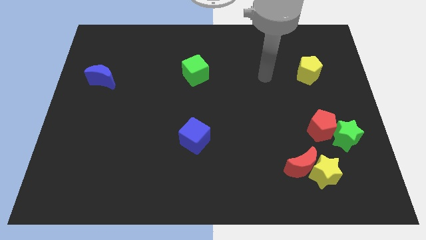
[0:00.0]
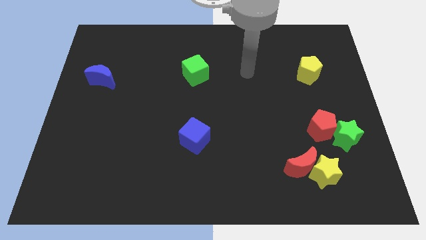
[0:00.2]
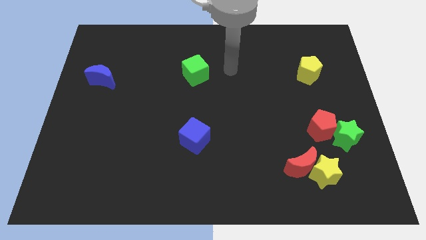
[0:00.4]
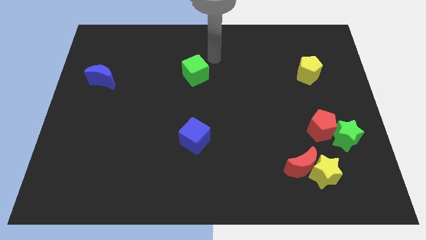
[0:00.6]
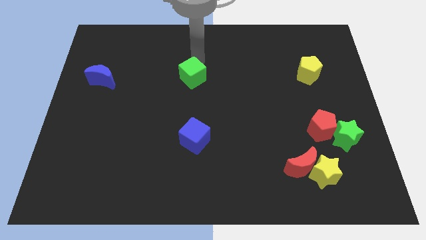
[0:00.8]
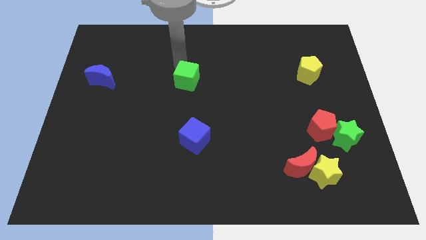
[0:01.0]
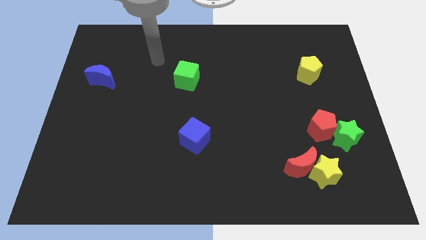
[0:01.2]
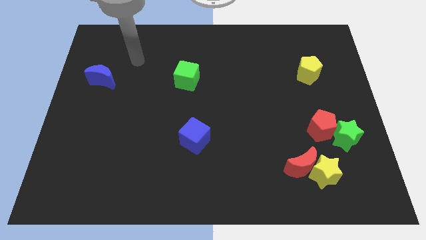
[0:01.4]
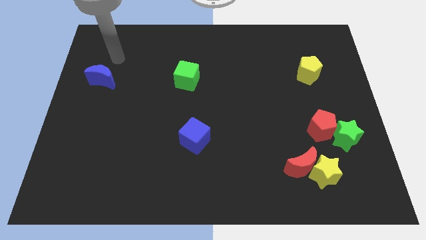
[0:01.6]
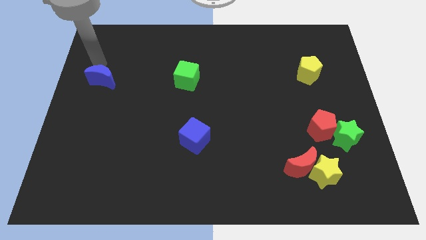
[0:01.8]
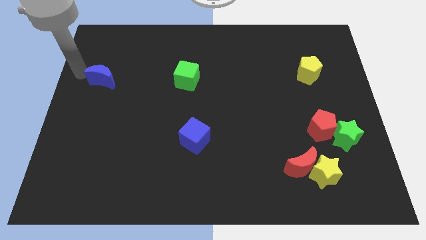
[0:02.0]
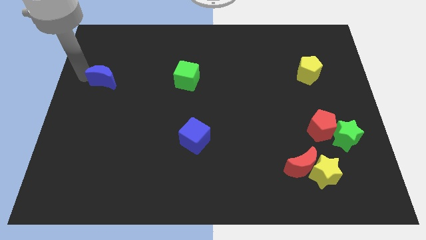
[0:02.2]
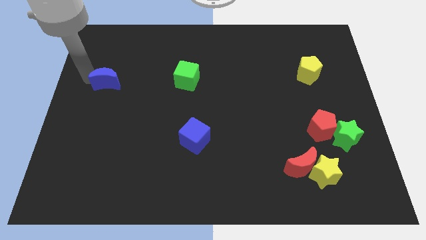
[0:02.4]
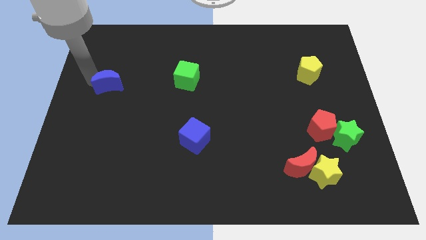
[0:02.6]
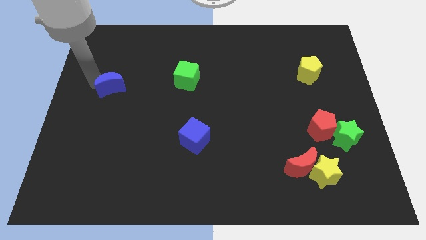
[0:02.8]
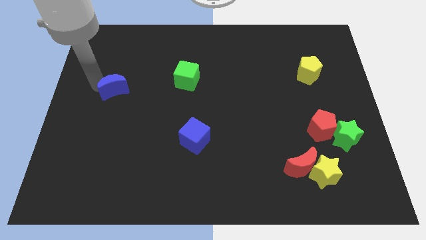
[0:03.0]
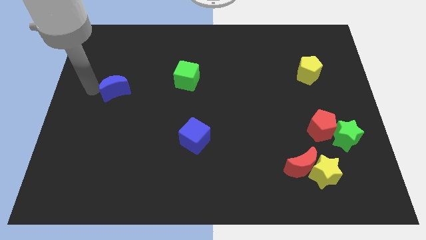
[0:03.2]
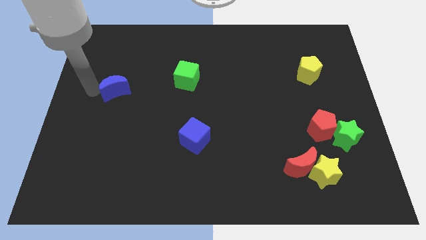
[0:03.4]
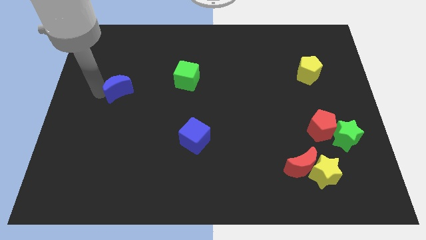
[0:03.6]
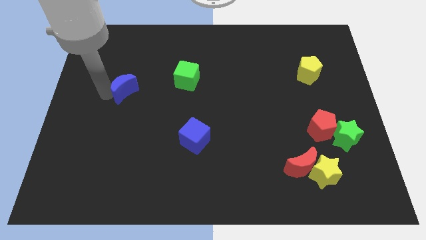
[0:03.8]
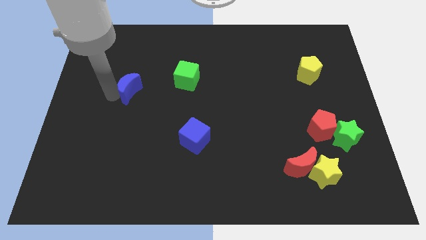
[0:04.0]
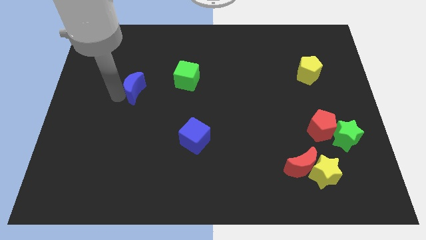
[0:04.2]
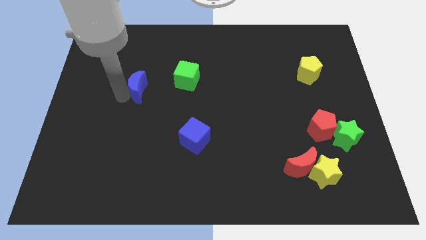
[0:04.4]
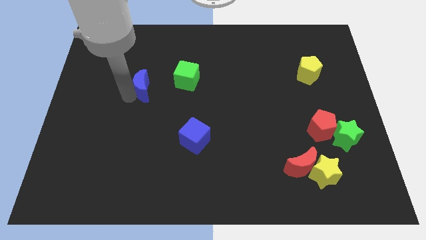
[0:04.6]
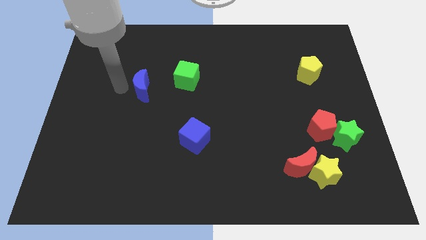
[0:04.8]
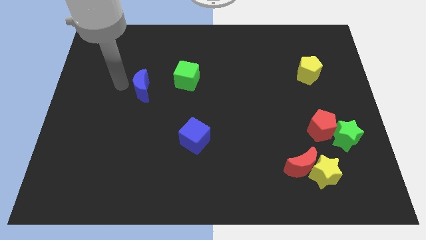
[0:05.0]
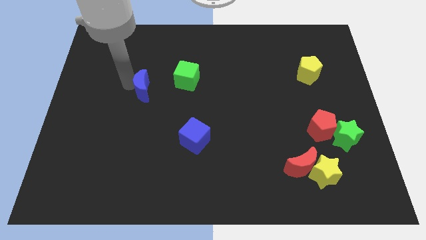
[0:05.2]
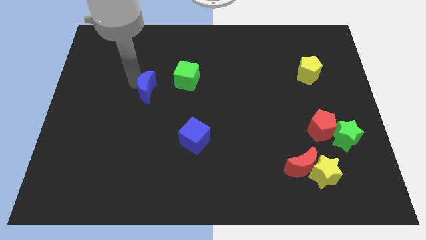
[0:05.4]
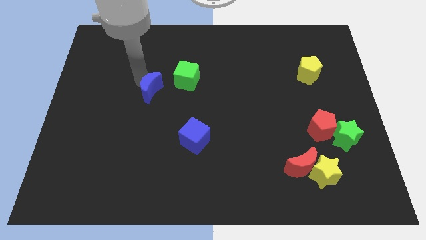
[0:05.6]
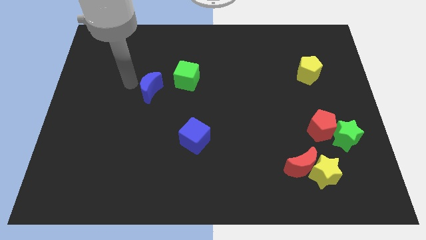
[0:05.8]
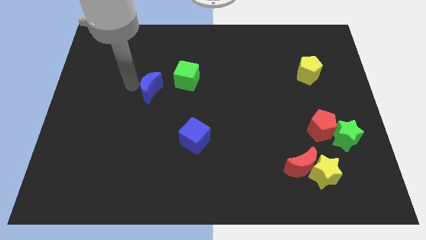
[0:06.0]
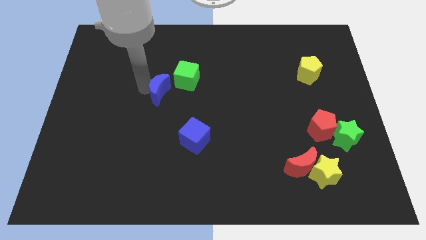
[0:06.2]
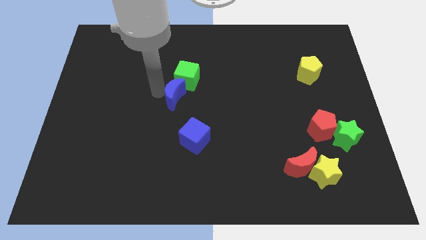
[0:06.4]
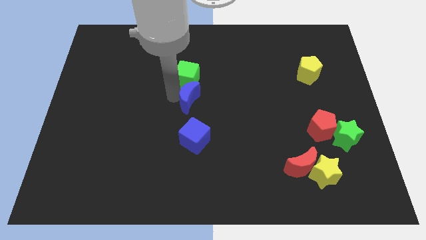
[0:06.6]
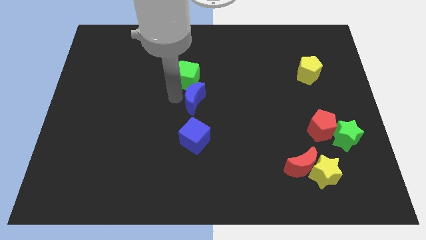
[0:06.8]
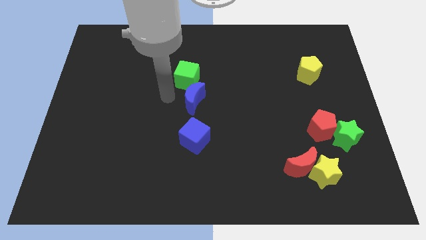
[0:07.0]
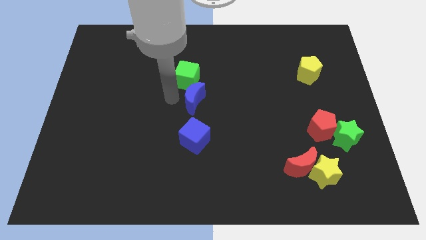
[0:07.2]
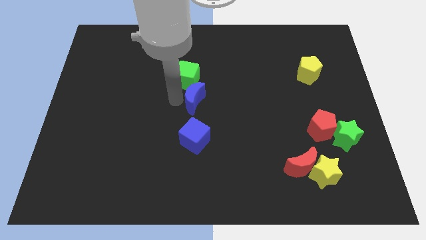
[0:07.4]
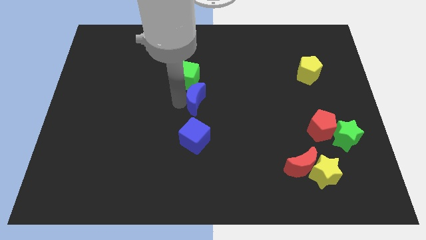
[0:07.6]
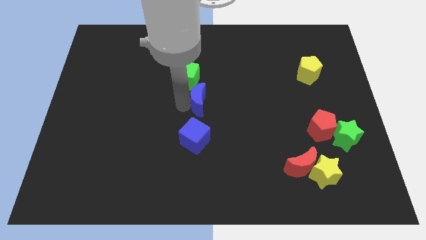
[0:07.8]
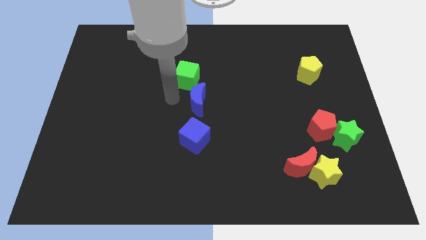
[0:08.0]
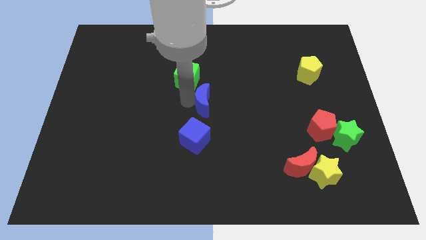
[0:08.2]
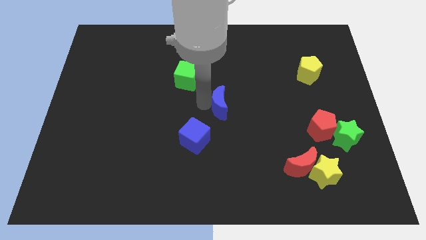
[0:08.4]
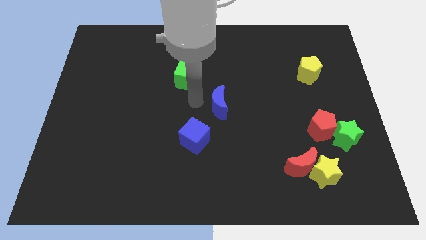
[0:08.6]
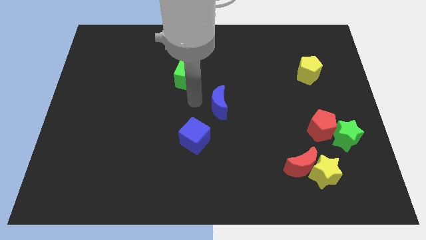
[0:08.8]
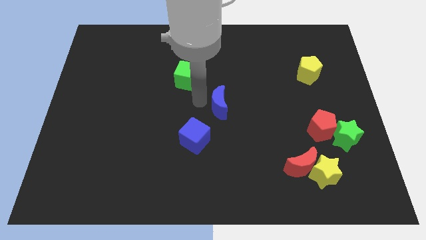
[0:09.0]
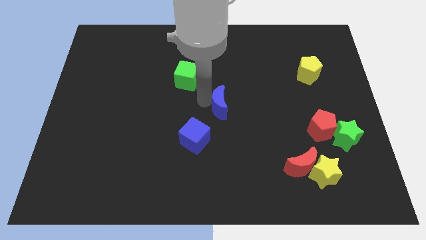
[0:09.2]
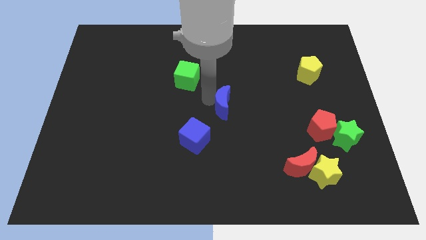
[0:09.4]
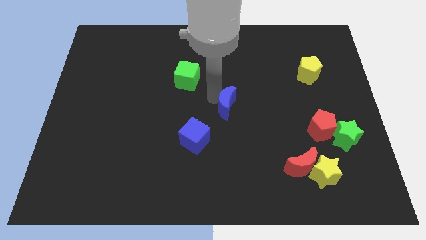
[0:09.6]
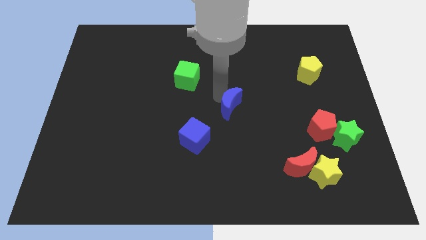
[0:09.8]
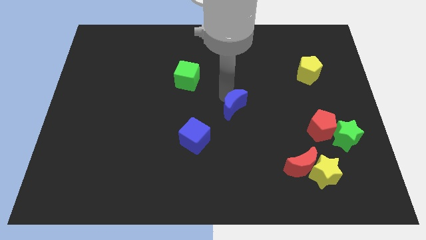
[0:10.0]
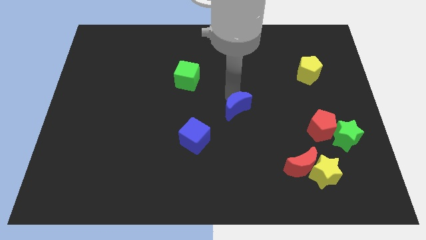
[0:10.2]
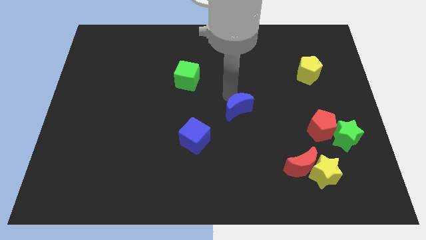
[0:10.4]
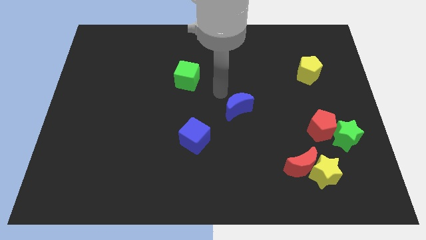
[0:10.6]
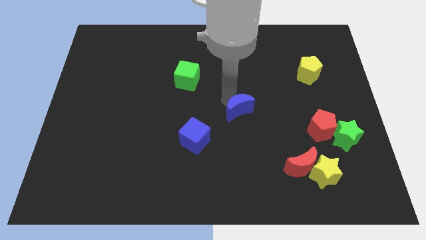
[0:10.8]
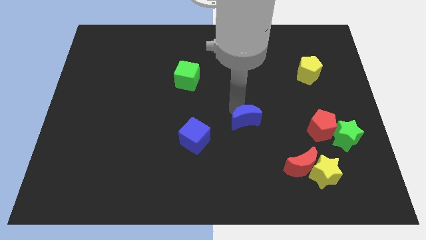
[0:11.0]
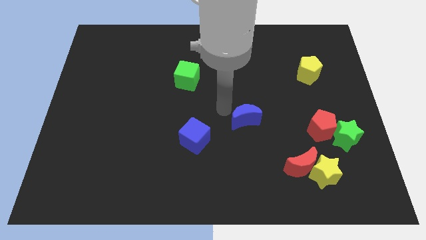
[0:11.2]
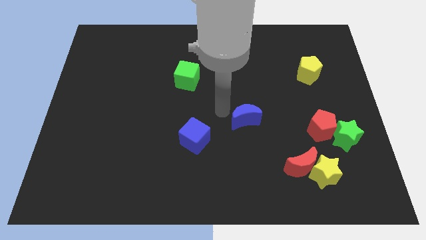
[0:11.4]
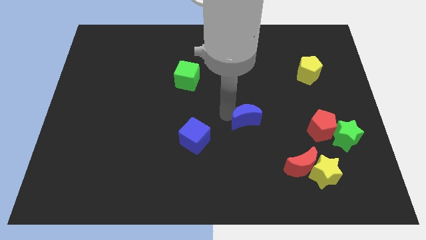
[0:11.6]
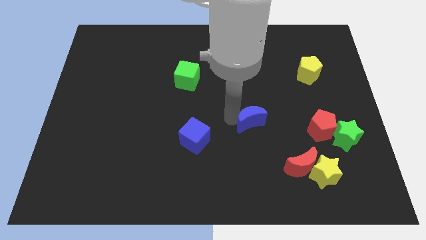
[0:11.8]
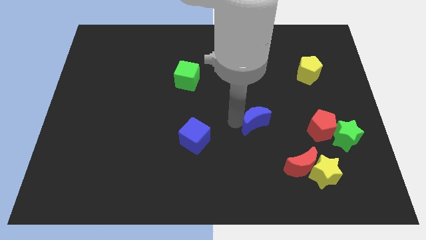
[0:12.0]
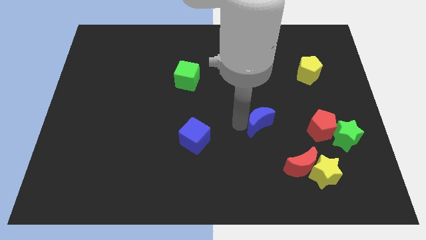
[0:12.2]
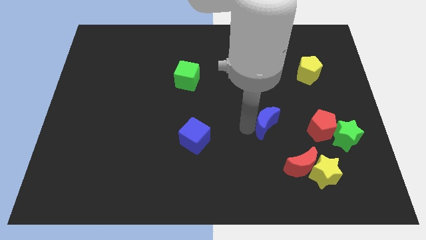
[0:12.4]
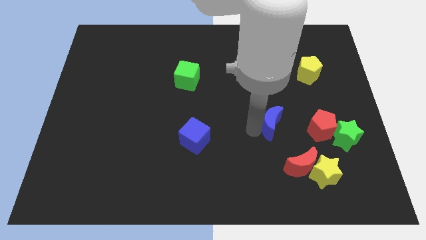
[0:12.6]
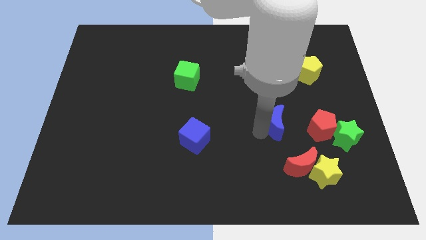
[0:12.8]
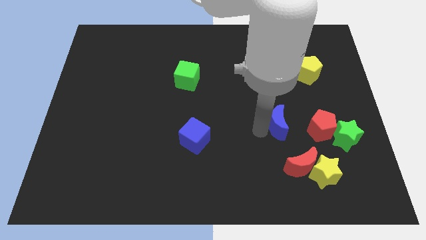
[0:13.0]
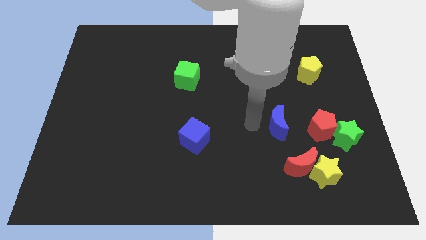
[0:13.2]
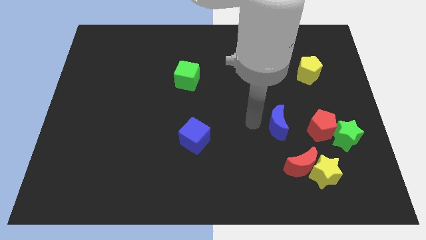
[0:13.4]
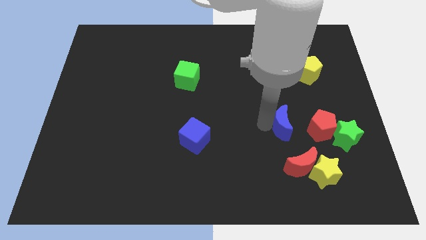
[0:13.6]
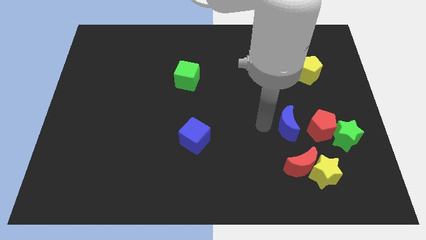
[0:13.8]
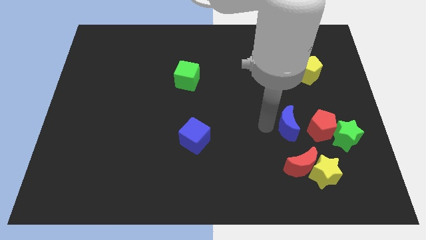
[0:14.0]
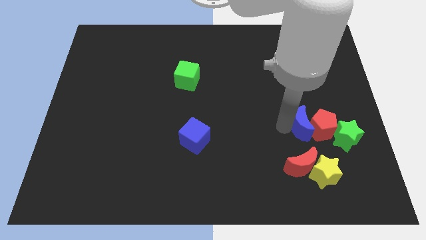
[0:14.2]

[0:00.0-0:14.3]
slide the blue moon to the red pentagon
